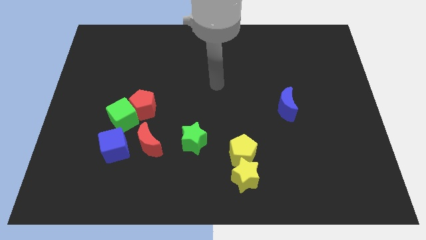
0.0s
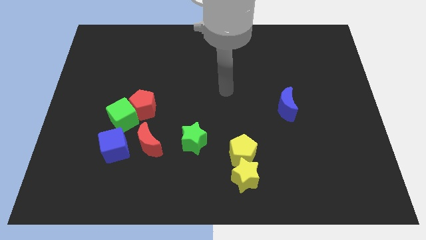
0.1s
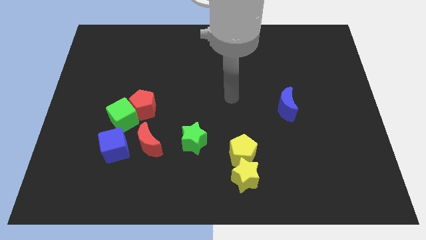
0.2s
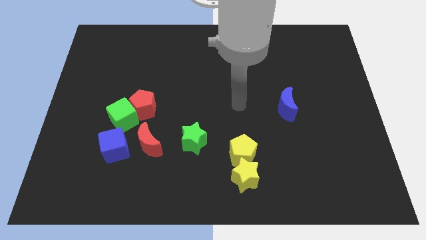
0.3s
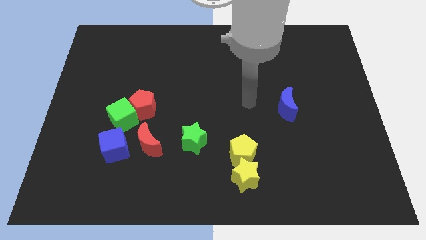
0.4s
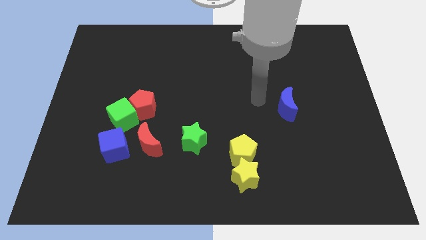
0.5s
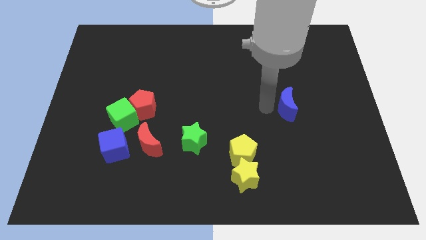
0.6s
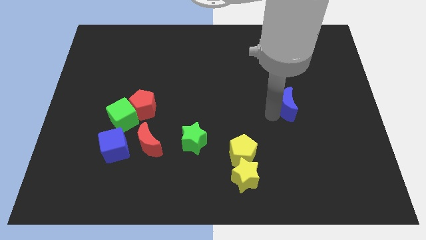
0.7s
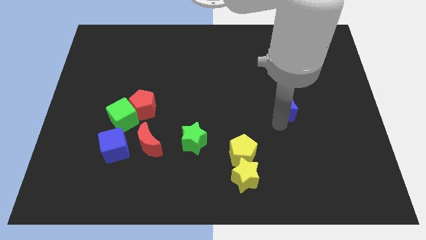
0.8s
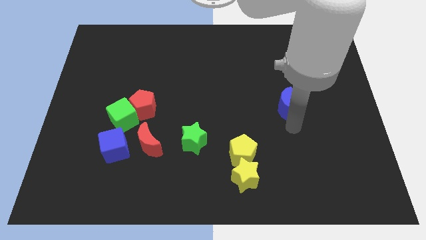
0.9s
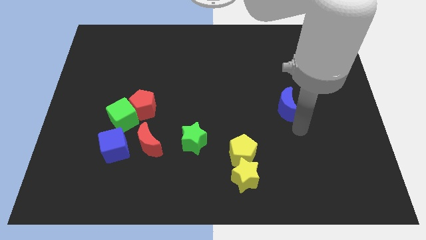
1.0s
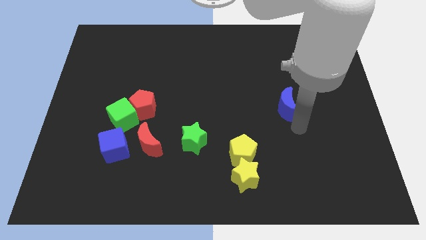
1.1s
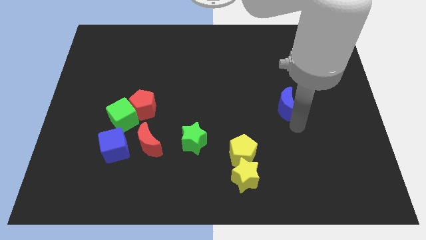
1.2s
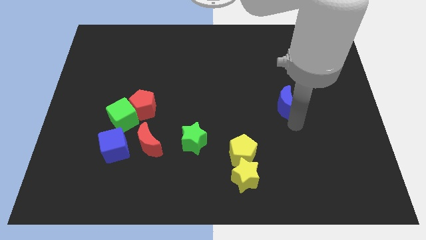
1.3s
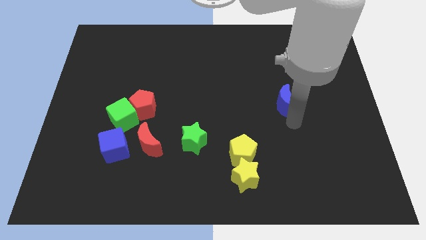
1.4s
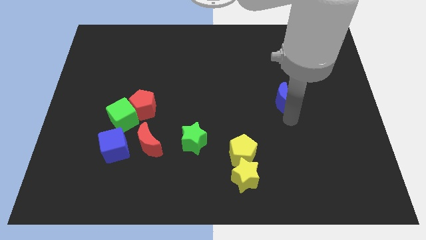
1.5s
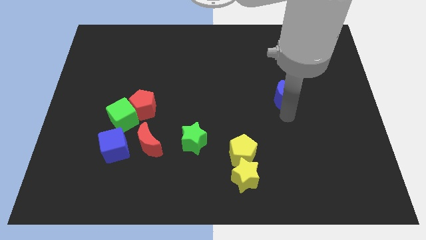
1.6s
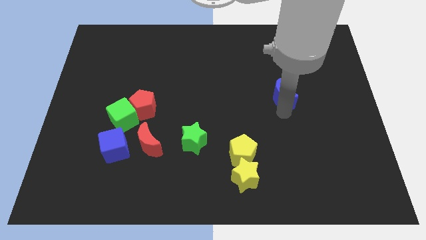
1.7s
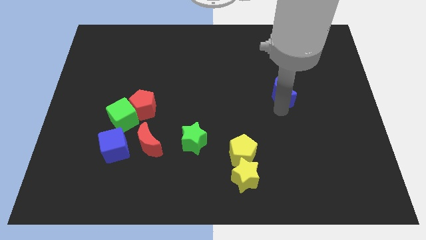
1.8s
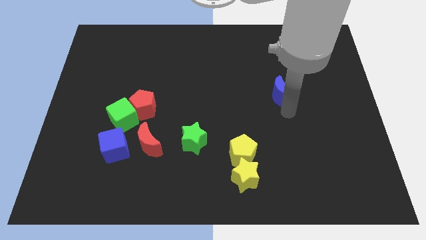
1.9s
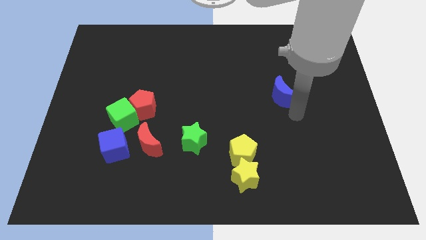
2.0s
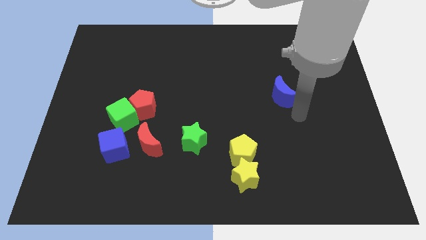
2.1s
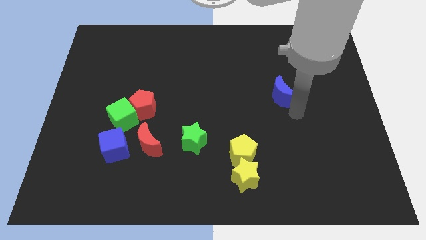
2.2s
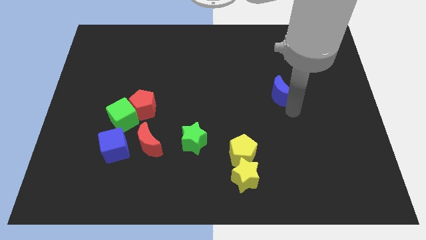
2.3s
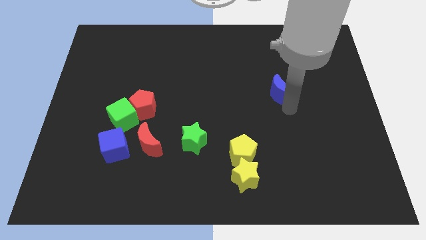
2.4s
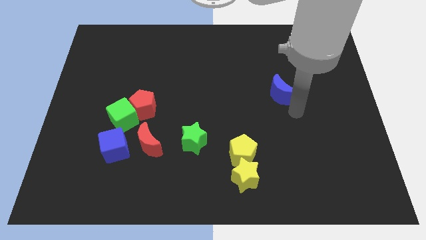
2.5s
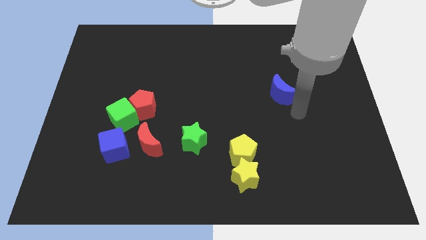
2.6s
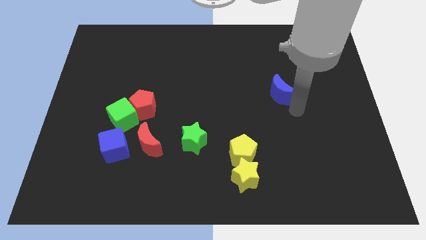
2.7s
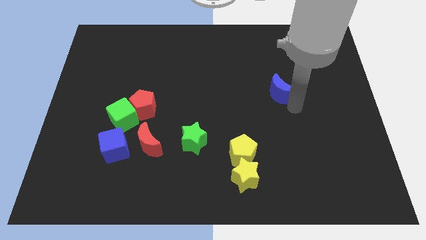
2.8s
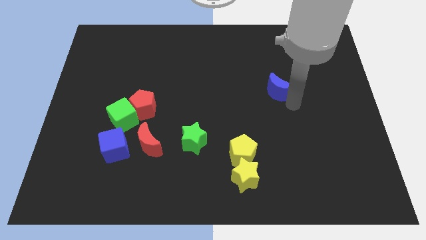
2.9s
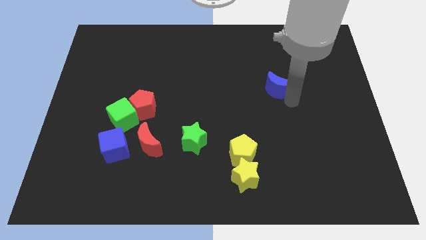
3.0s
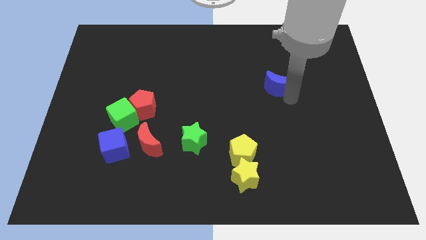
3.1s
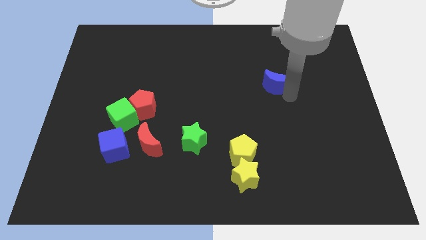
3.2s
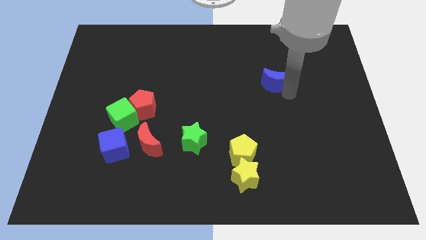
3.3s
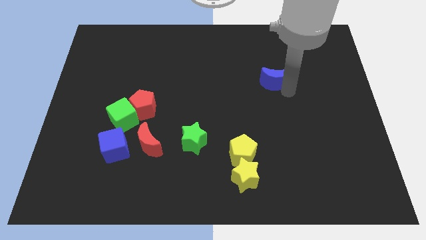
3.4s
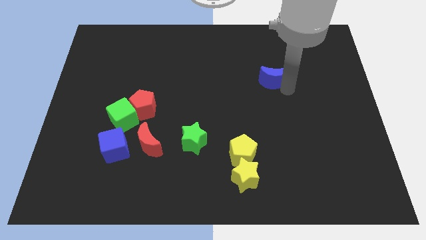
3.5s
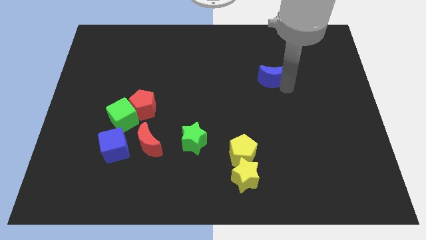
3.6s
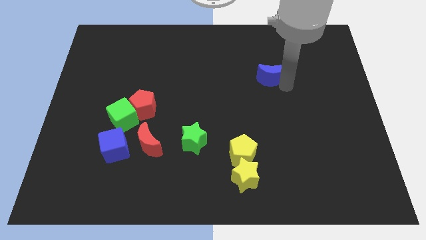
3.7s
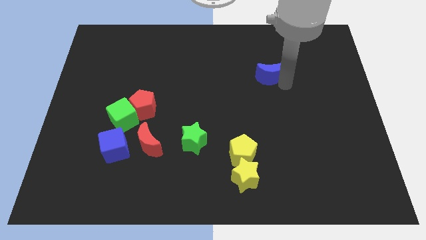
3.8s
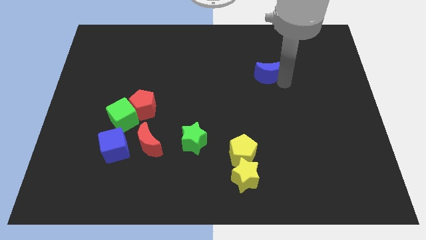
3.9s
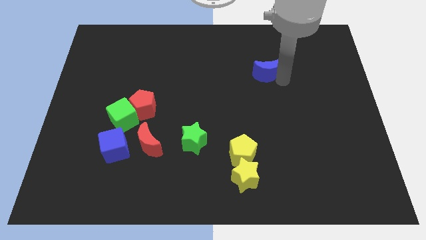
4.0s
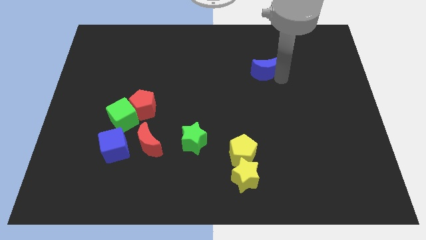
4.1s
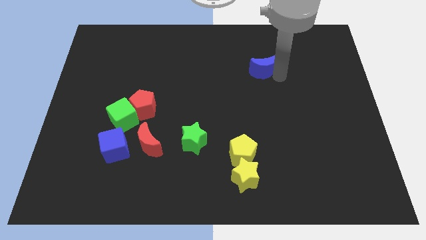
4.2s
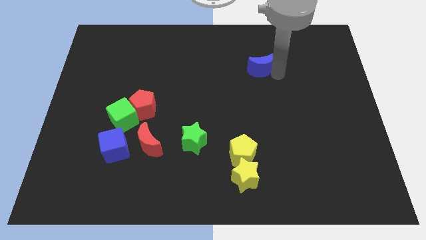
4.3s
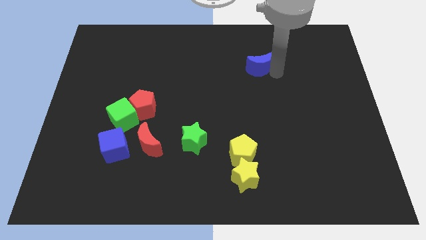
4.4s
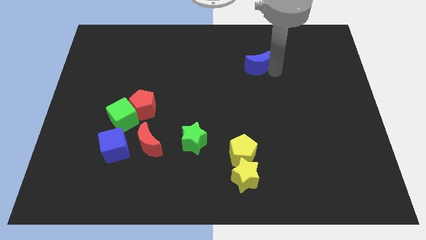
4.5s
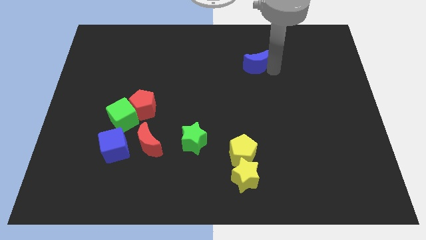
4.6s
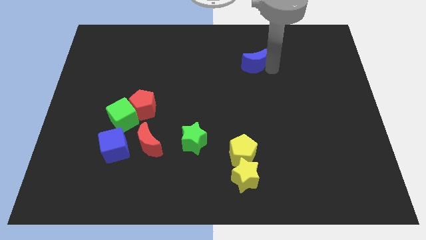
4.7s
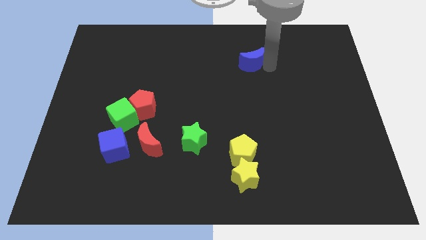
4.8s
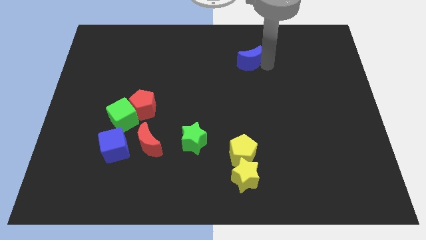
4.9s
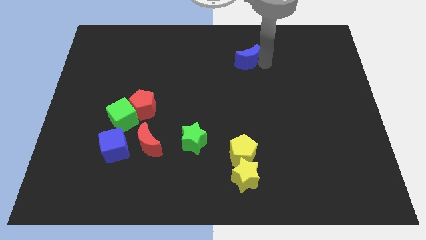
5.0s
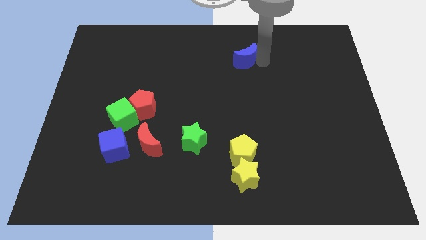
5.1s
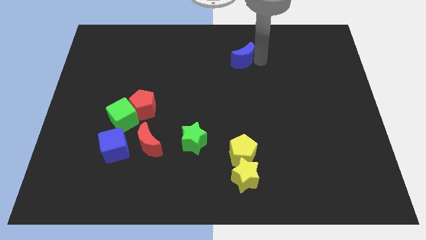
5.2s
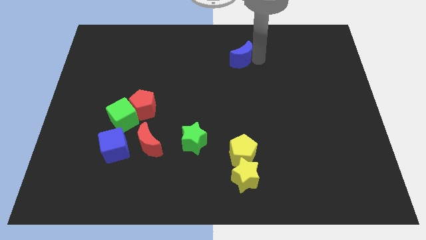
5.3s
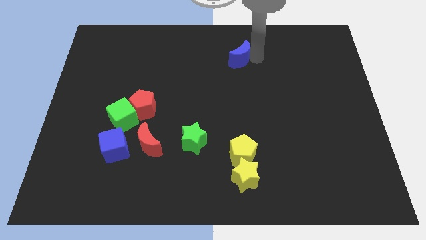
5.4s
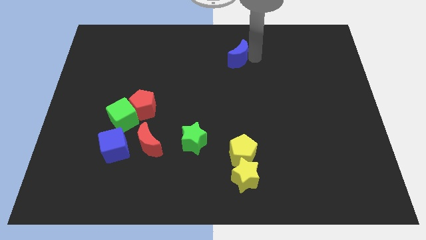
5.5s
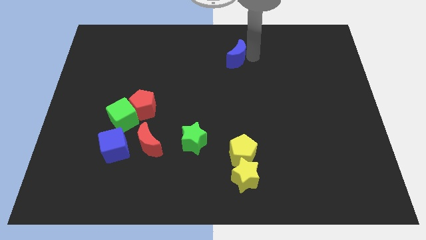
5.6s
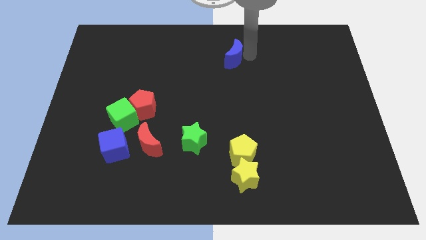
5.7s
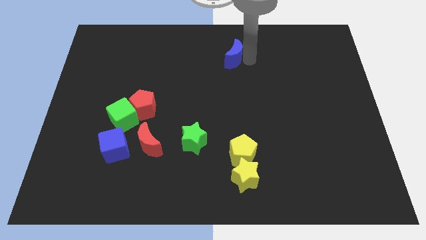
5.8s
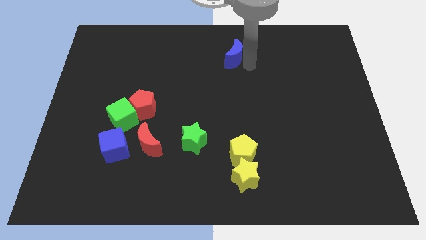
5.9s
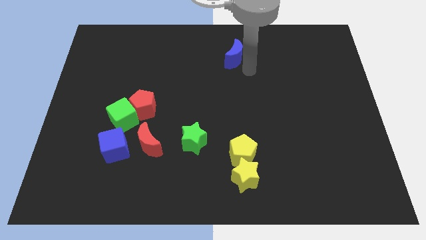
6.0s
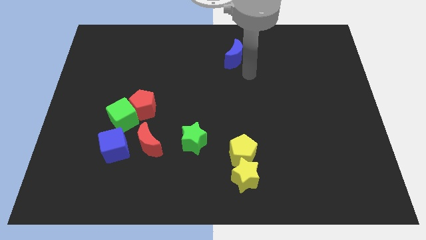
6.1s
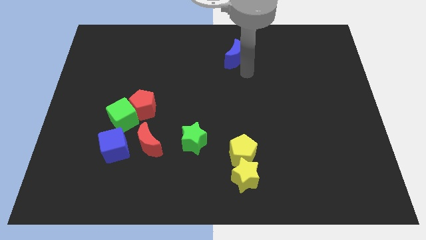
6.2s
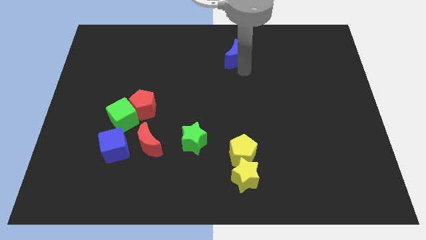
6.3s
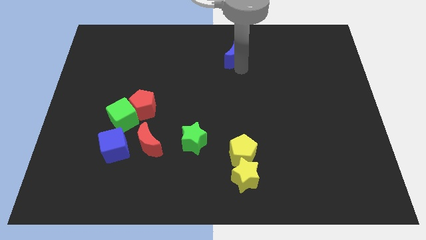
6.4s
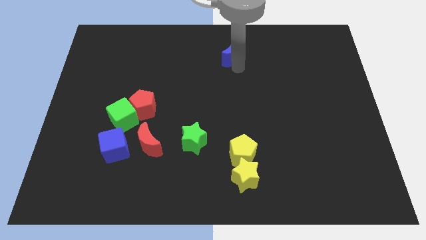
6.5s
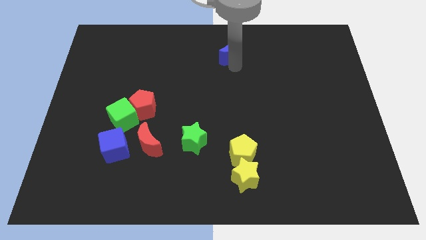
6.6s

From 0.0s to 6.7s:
push the blue moon to the top side
